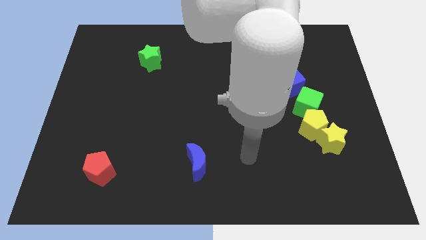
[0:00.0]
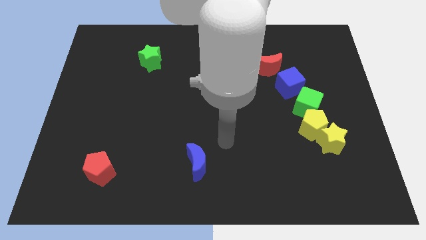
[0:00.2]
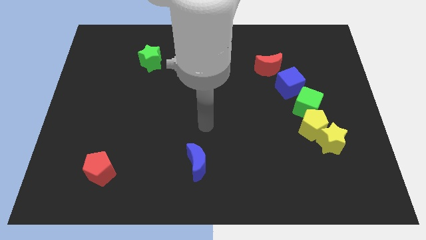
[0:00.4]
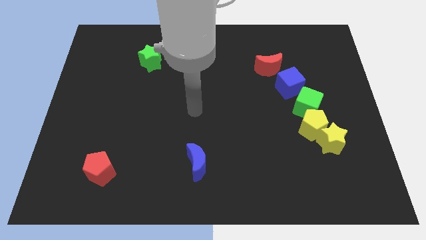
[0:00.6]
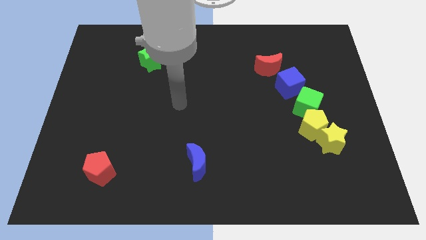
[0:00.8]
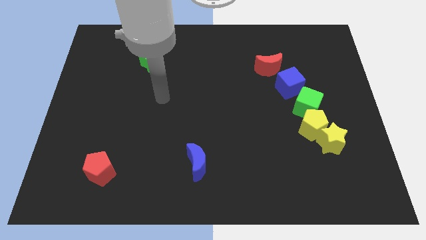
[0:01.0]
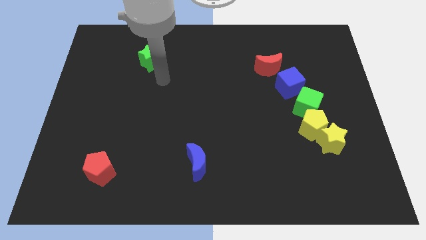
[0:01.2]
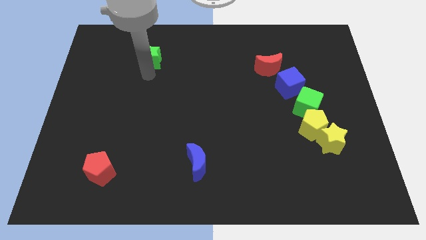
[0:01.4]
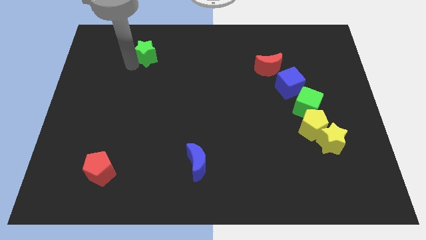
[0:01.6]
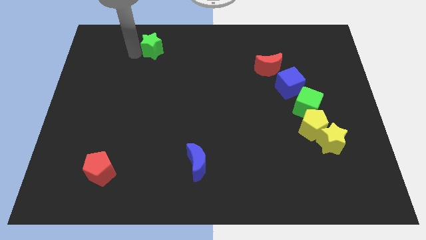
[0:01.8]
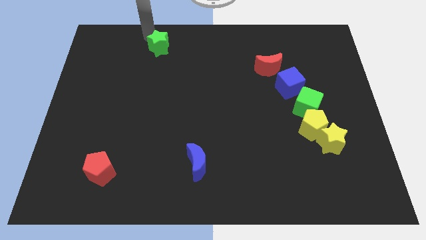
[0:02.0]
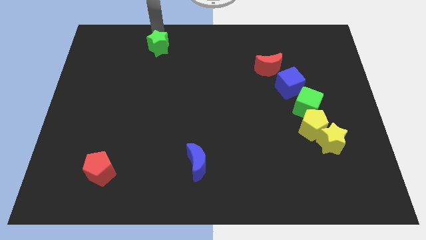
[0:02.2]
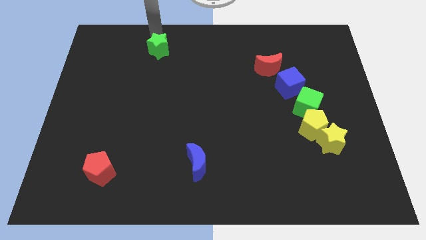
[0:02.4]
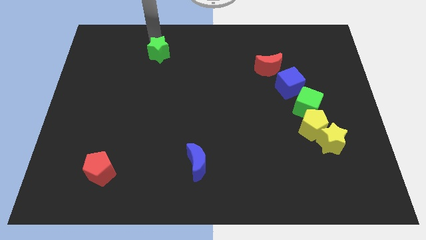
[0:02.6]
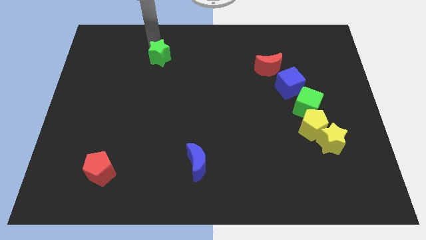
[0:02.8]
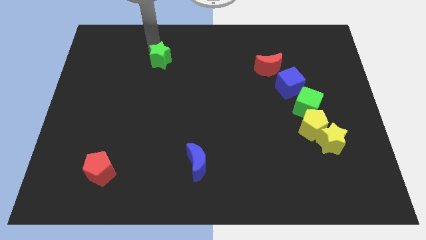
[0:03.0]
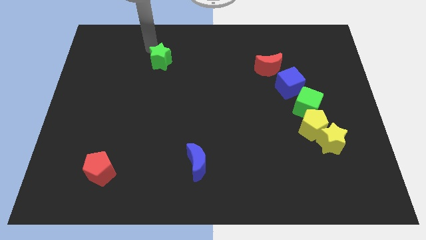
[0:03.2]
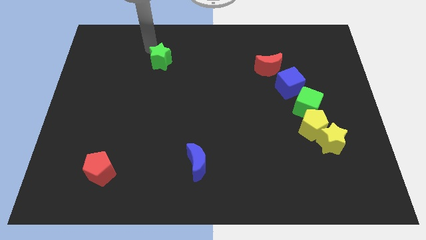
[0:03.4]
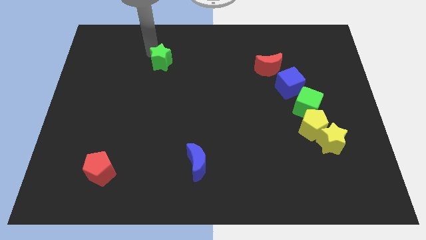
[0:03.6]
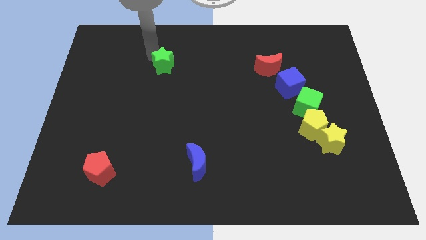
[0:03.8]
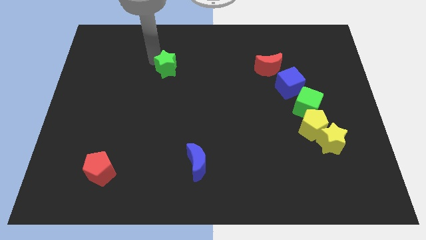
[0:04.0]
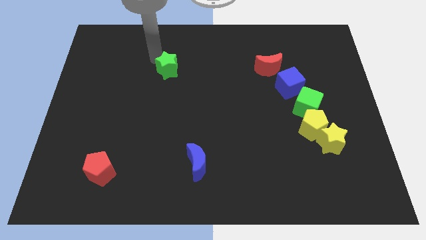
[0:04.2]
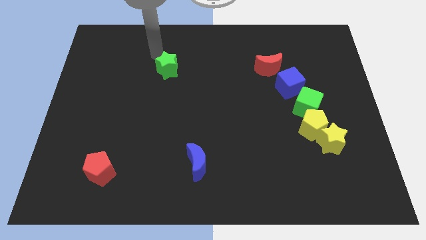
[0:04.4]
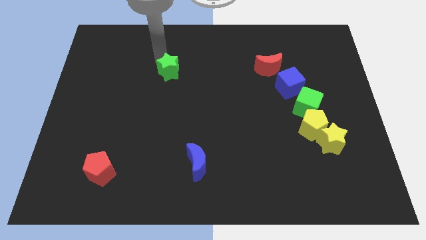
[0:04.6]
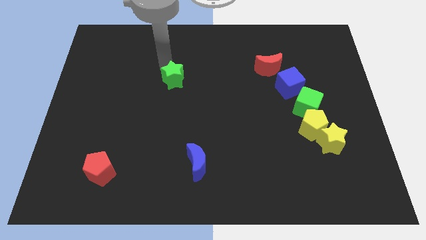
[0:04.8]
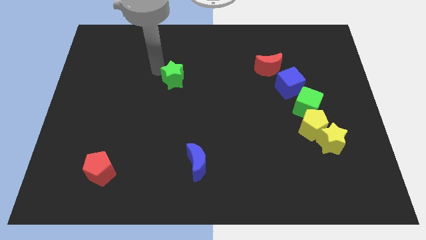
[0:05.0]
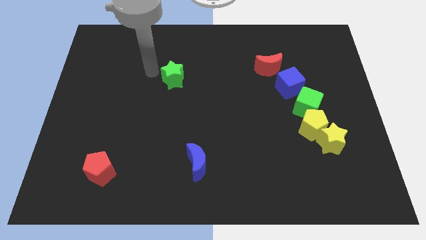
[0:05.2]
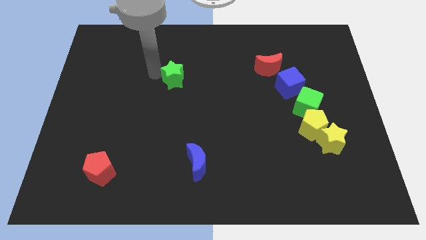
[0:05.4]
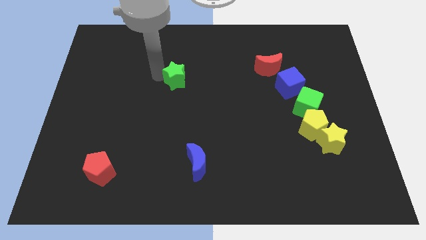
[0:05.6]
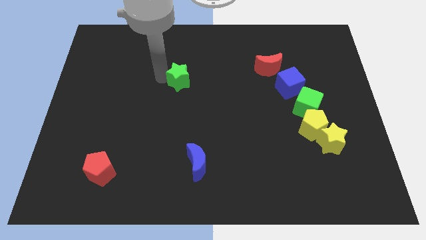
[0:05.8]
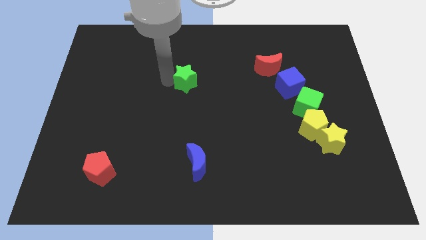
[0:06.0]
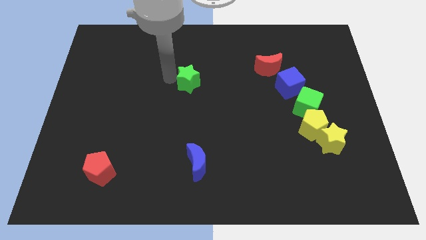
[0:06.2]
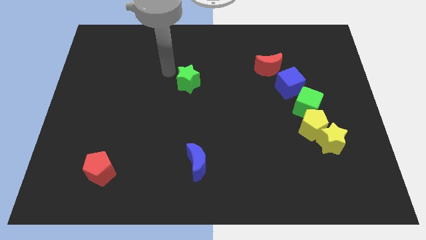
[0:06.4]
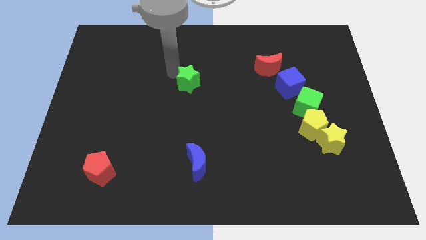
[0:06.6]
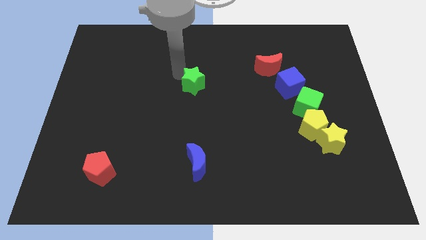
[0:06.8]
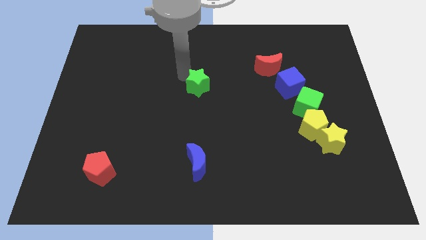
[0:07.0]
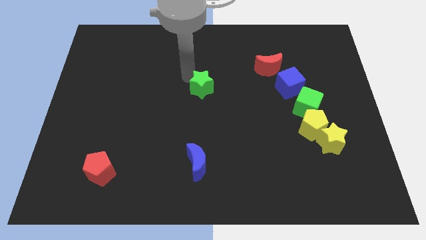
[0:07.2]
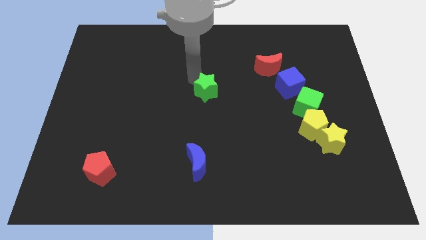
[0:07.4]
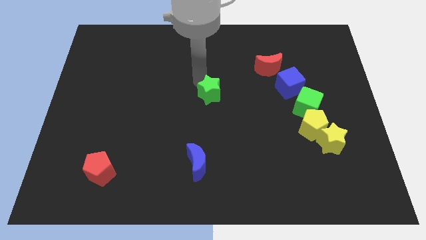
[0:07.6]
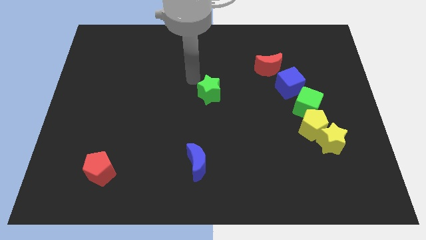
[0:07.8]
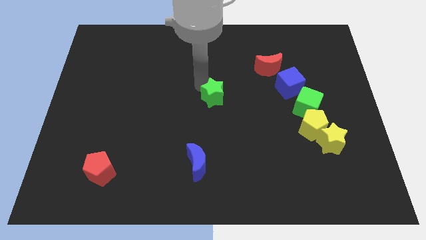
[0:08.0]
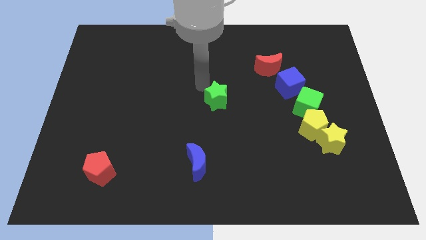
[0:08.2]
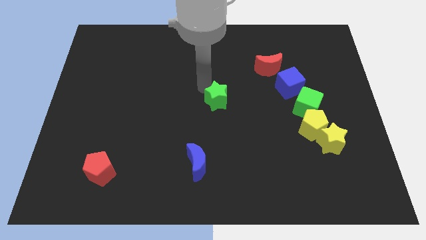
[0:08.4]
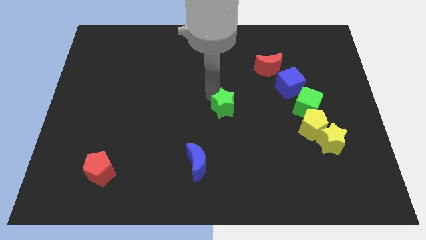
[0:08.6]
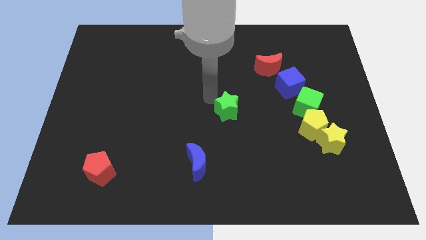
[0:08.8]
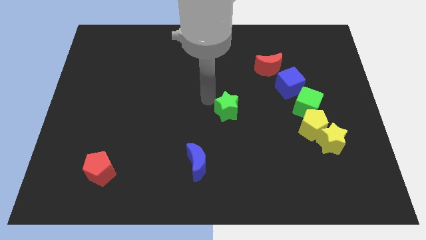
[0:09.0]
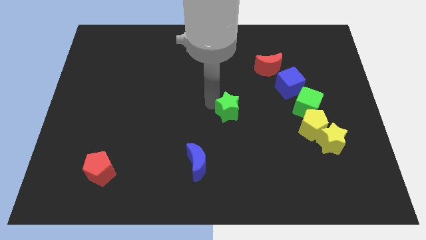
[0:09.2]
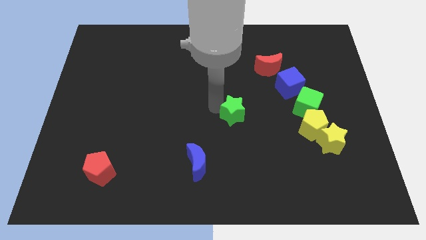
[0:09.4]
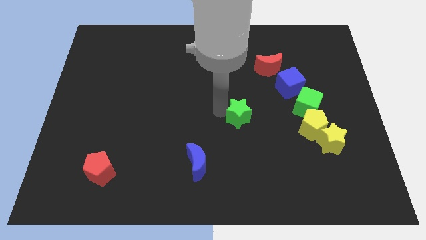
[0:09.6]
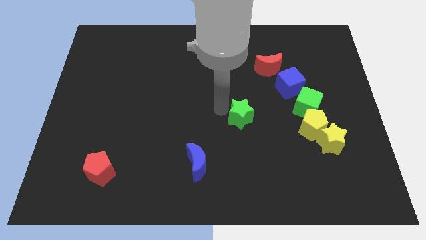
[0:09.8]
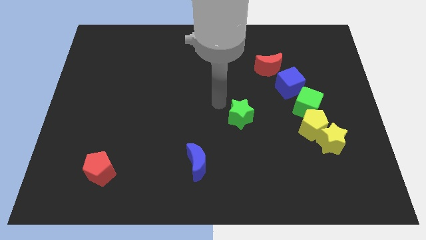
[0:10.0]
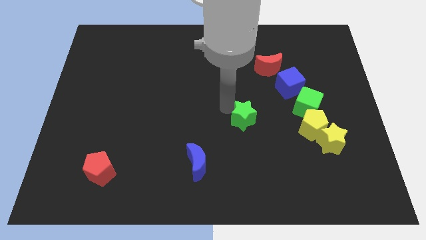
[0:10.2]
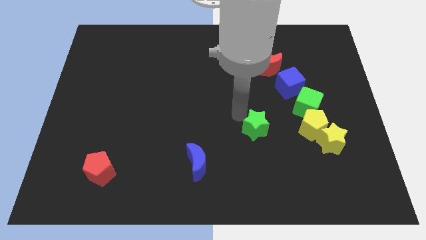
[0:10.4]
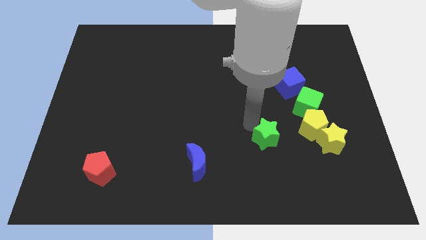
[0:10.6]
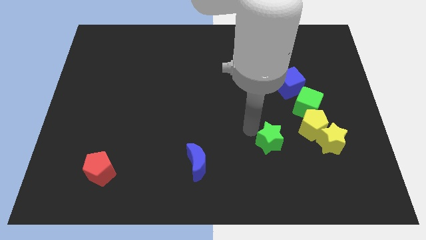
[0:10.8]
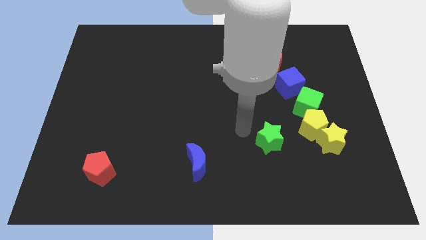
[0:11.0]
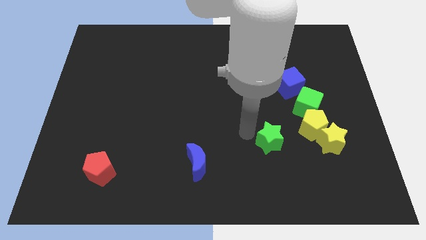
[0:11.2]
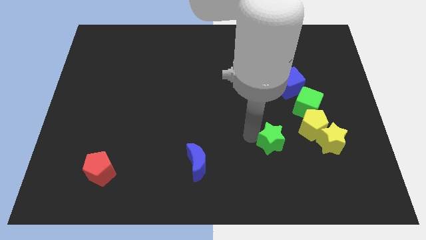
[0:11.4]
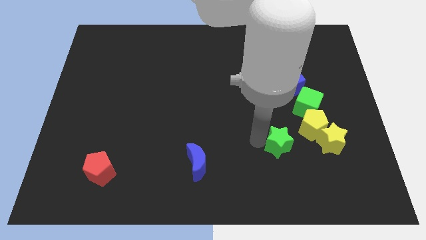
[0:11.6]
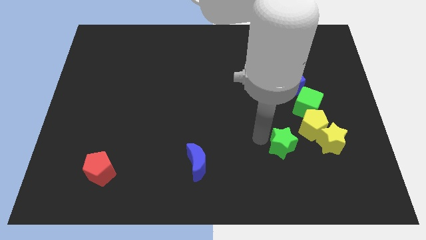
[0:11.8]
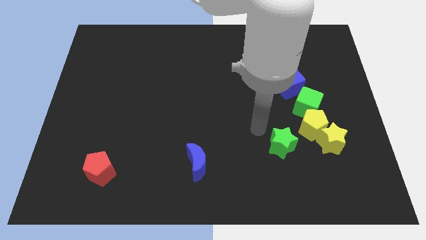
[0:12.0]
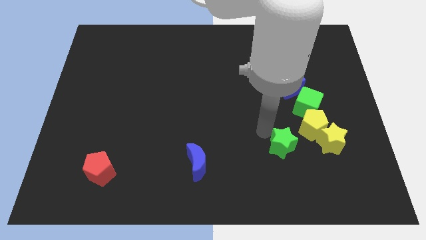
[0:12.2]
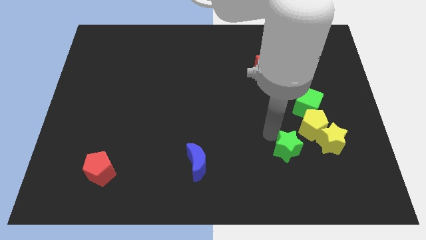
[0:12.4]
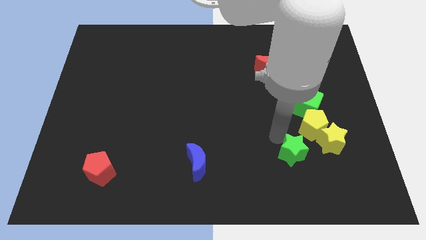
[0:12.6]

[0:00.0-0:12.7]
put the green star to the bottom left of the yellow star

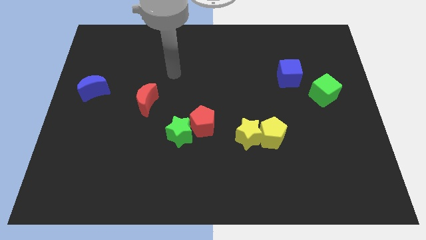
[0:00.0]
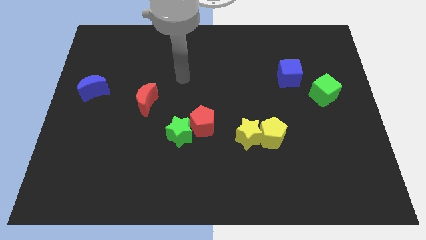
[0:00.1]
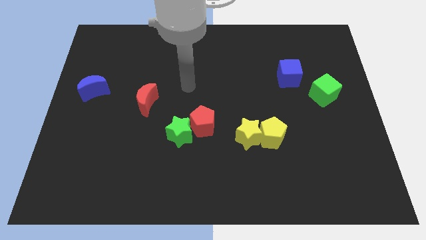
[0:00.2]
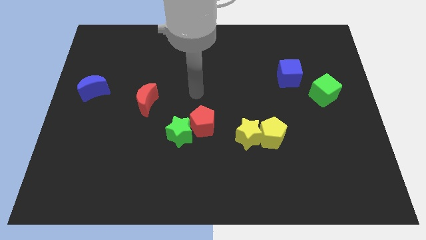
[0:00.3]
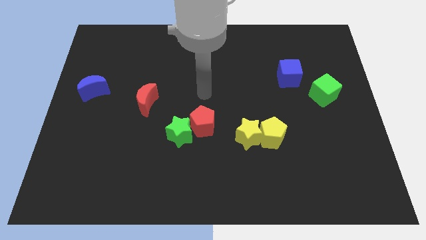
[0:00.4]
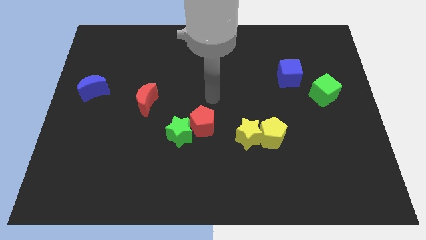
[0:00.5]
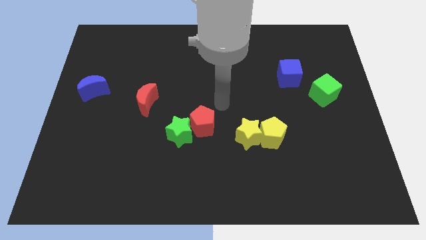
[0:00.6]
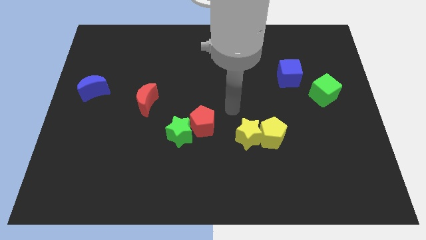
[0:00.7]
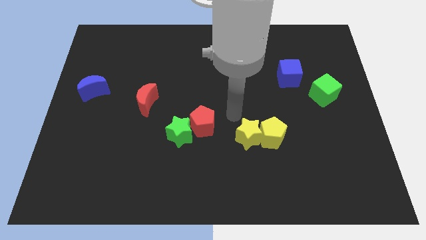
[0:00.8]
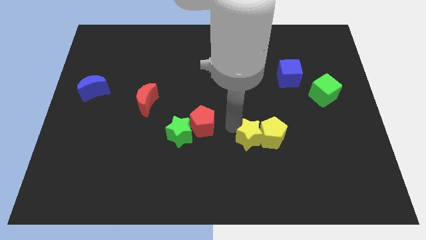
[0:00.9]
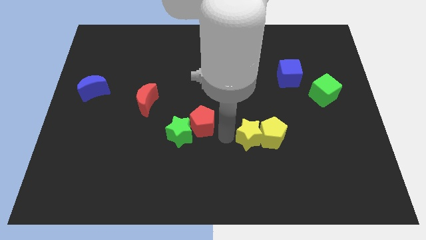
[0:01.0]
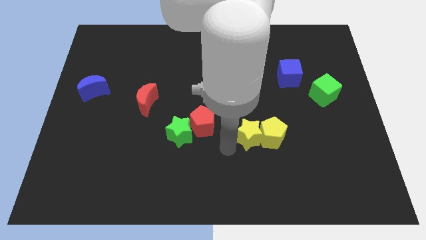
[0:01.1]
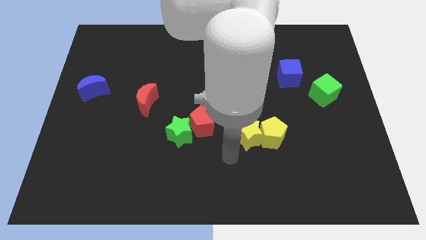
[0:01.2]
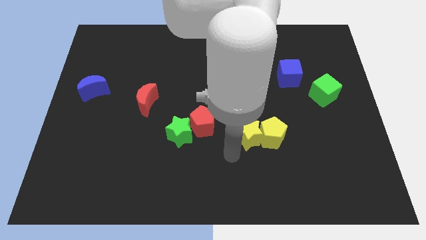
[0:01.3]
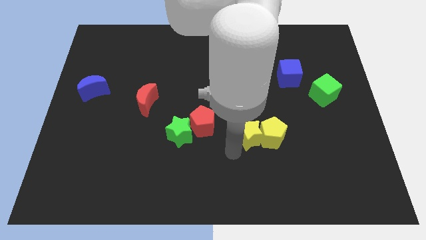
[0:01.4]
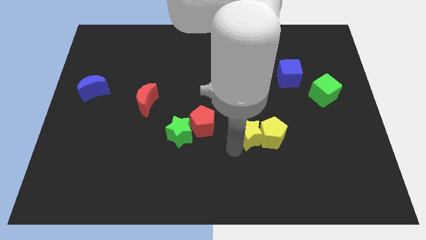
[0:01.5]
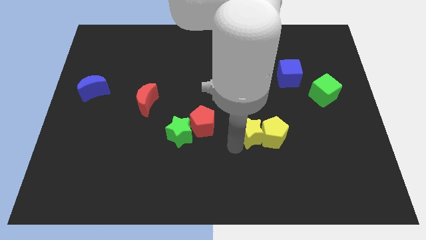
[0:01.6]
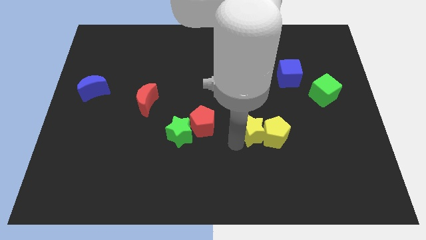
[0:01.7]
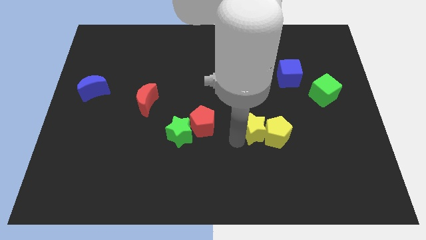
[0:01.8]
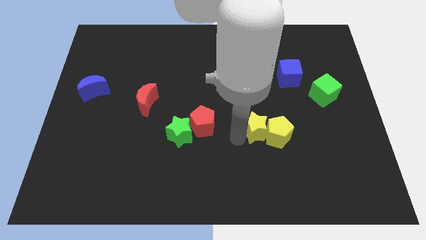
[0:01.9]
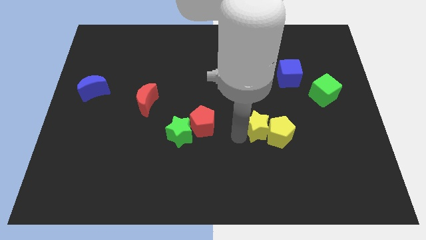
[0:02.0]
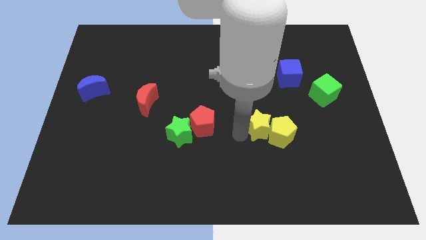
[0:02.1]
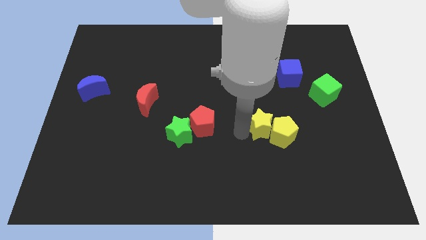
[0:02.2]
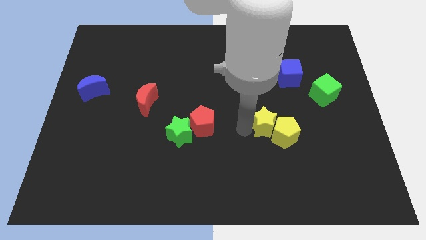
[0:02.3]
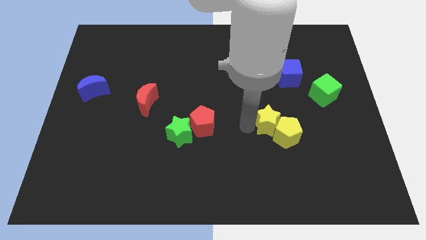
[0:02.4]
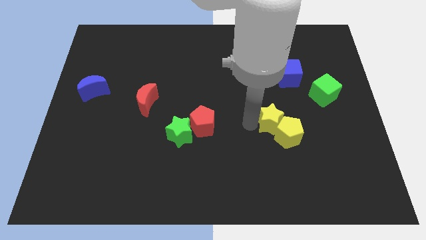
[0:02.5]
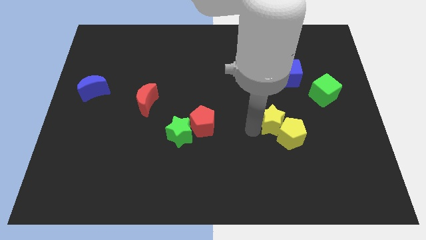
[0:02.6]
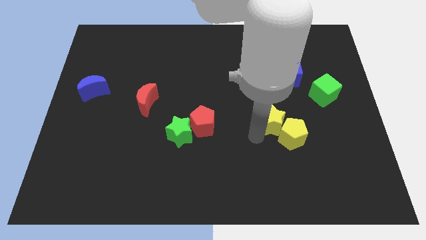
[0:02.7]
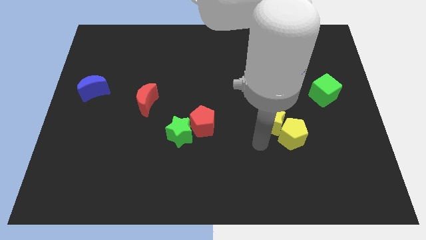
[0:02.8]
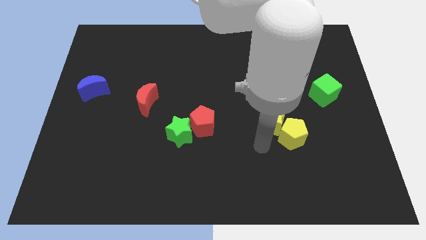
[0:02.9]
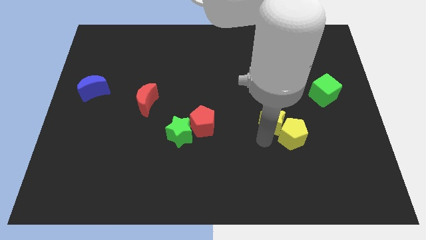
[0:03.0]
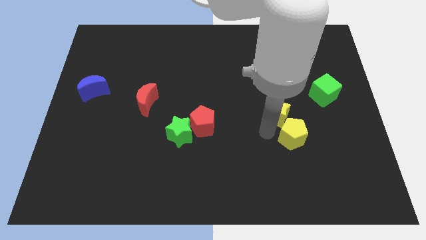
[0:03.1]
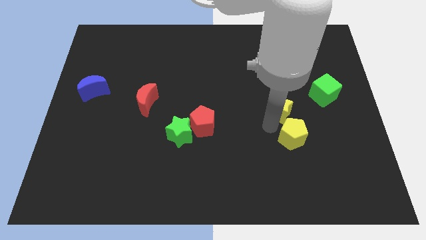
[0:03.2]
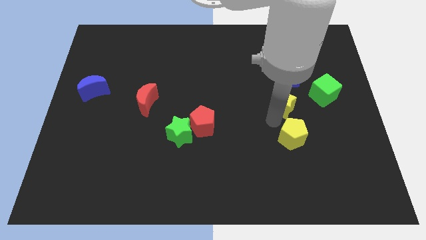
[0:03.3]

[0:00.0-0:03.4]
put the yellow star to the left side of the green cube
